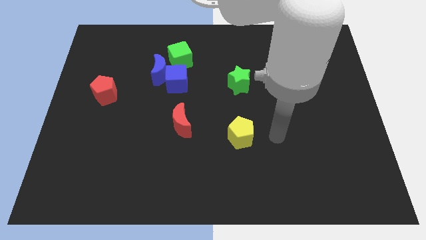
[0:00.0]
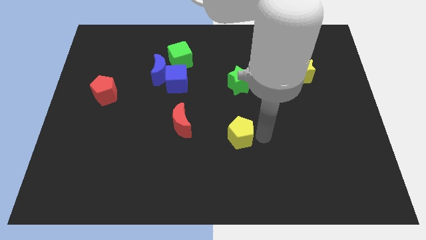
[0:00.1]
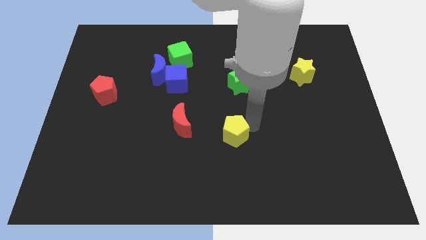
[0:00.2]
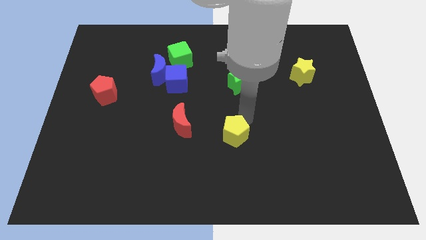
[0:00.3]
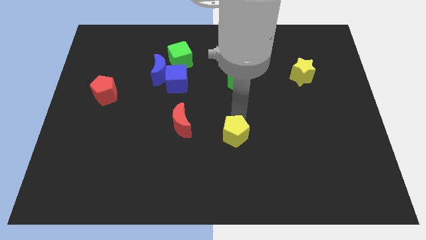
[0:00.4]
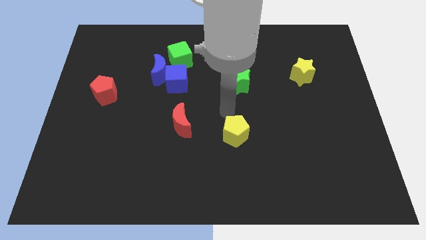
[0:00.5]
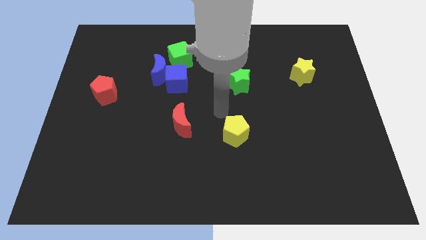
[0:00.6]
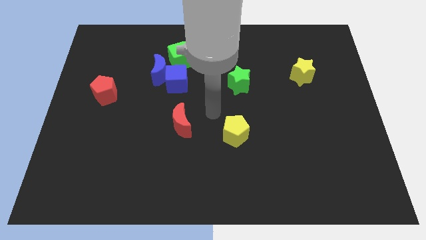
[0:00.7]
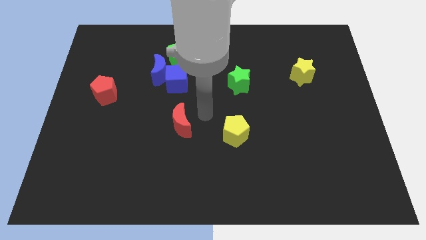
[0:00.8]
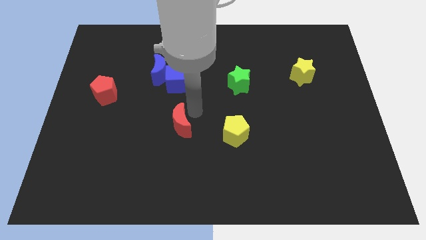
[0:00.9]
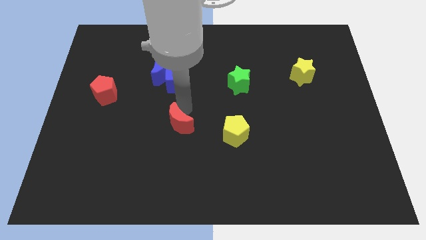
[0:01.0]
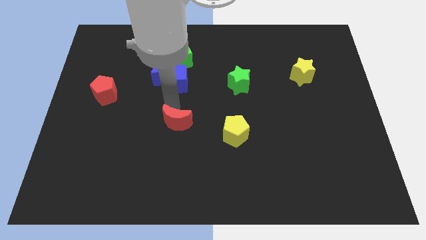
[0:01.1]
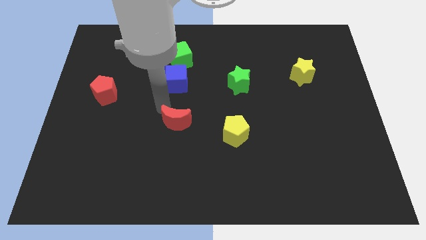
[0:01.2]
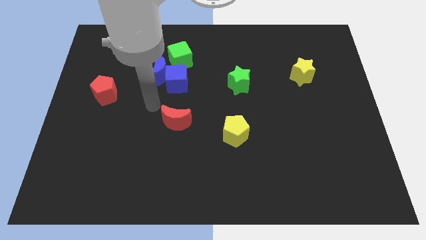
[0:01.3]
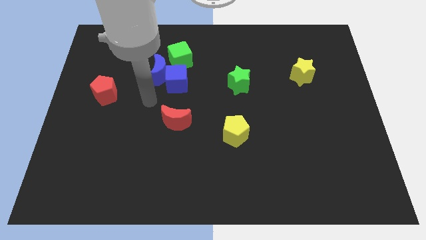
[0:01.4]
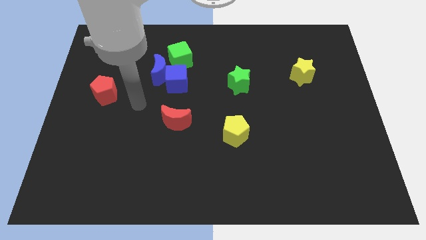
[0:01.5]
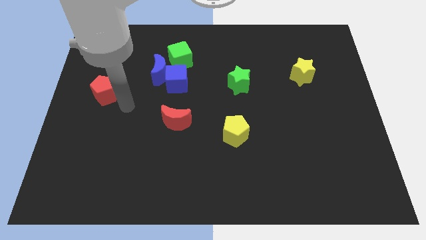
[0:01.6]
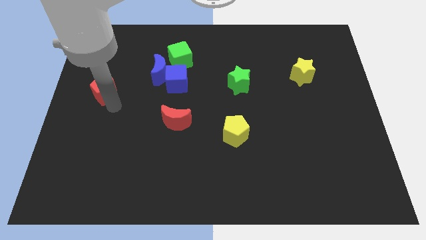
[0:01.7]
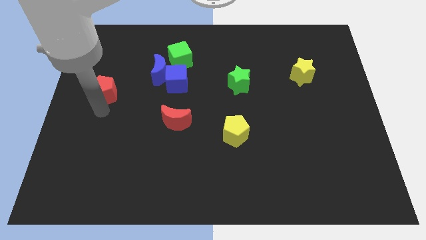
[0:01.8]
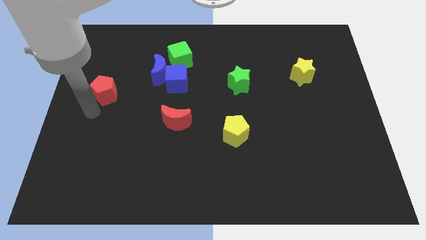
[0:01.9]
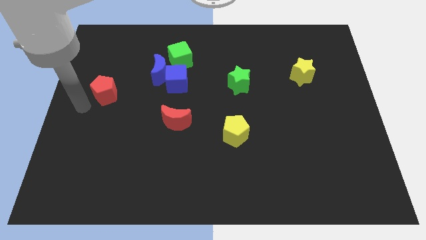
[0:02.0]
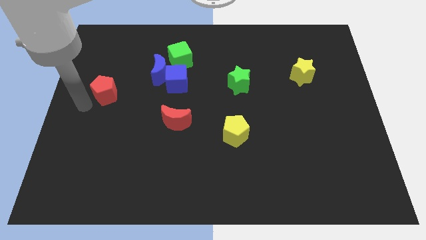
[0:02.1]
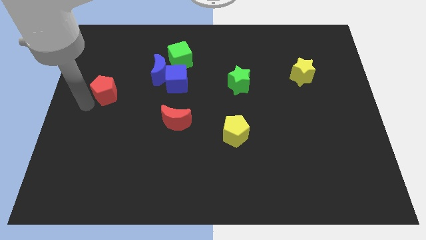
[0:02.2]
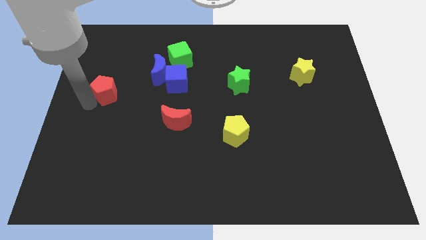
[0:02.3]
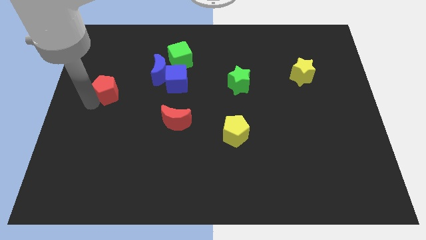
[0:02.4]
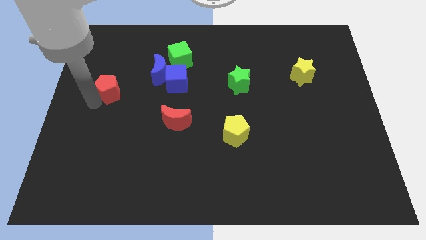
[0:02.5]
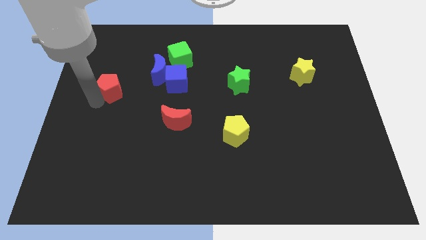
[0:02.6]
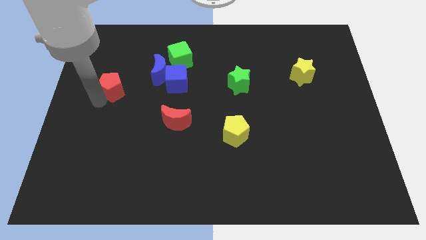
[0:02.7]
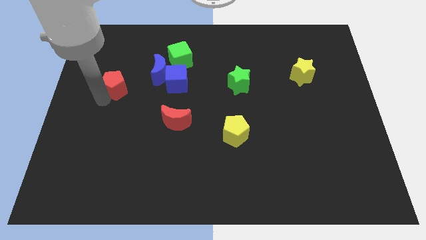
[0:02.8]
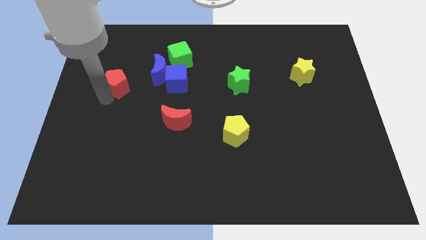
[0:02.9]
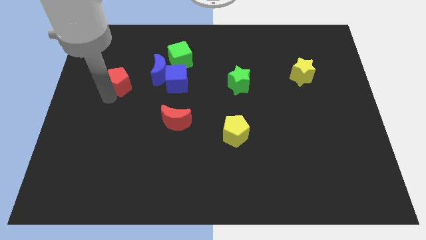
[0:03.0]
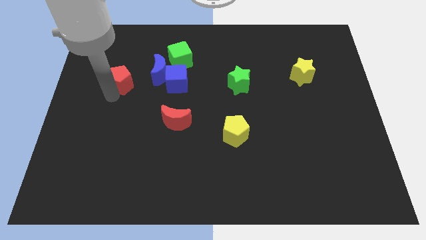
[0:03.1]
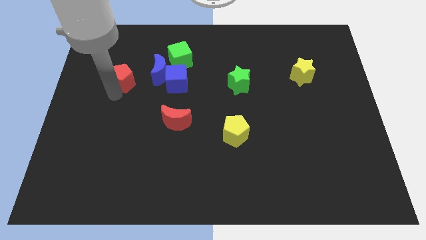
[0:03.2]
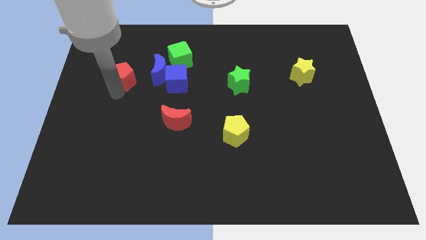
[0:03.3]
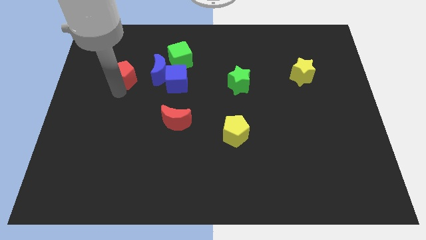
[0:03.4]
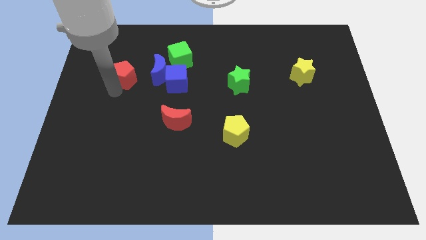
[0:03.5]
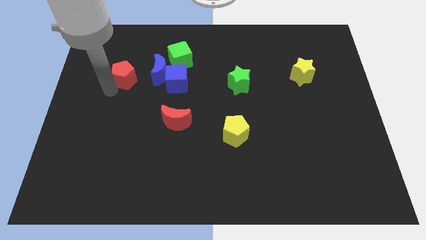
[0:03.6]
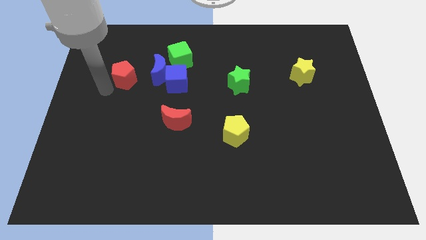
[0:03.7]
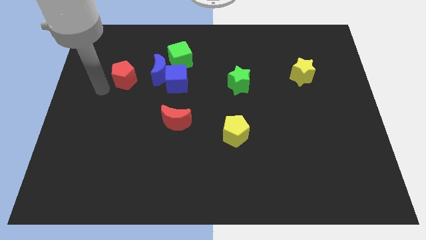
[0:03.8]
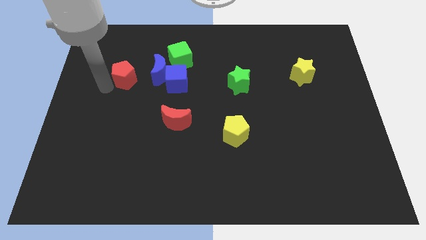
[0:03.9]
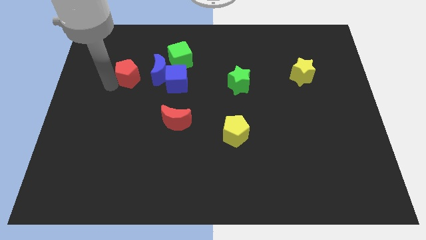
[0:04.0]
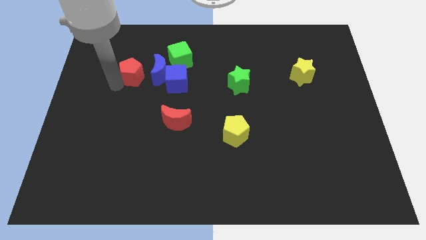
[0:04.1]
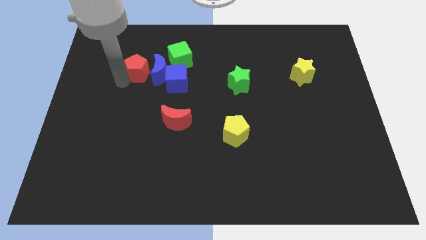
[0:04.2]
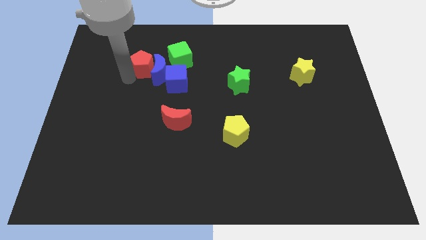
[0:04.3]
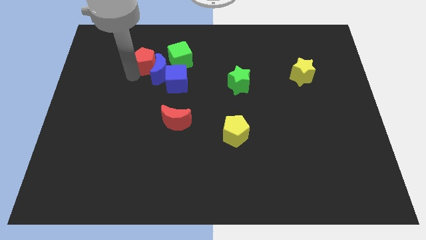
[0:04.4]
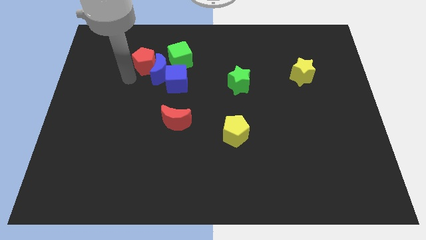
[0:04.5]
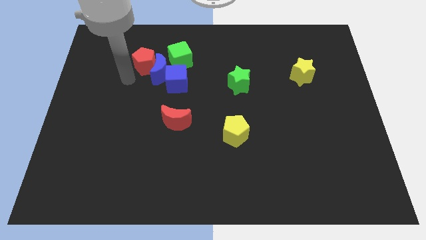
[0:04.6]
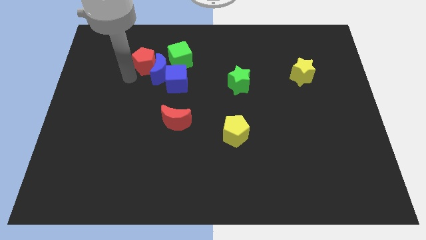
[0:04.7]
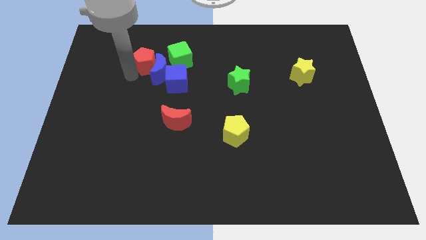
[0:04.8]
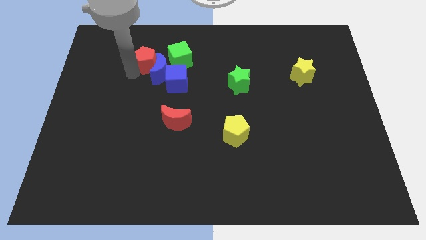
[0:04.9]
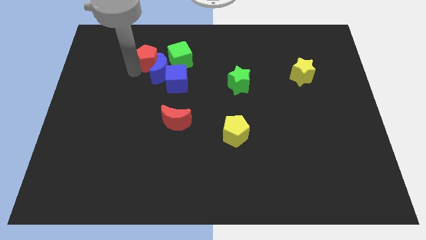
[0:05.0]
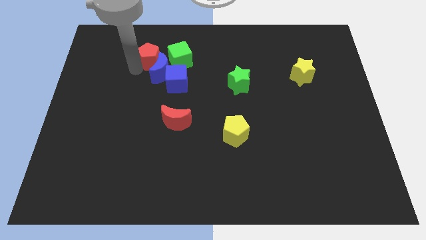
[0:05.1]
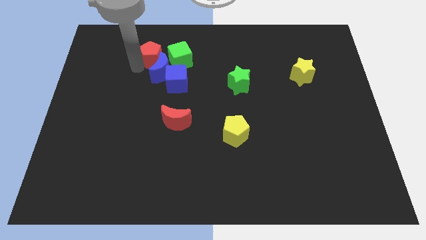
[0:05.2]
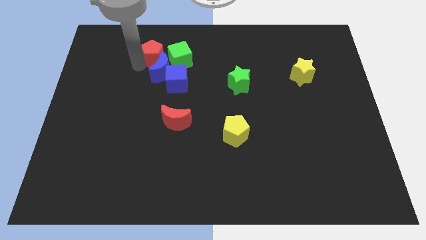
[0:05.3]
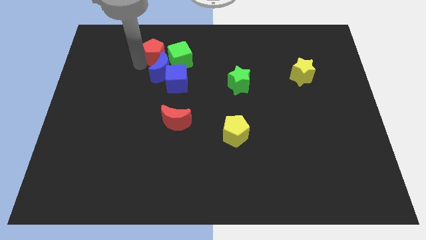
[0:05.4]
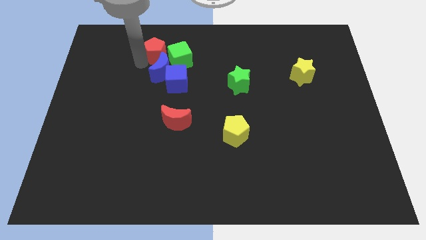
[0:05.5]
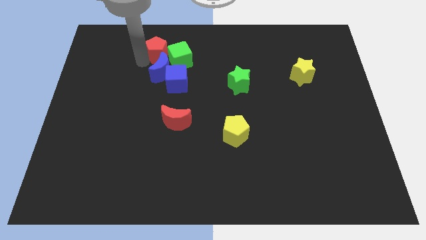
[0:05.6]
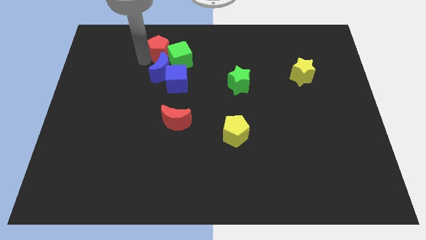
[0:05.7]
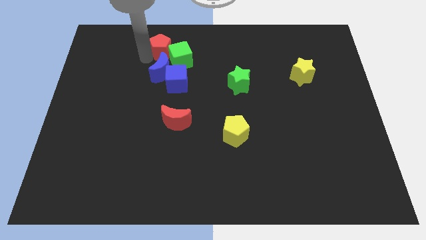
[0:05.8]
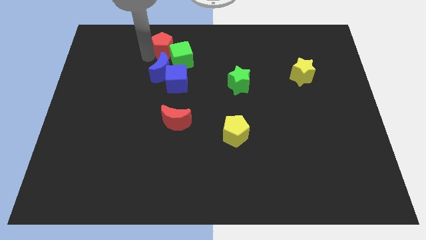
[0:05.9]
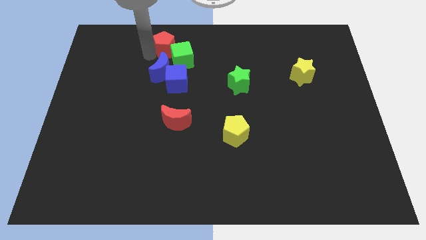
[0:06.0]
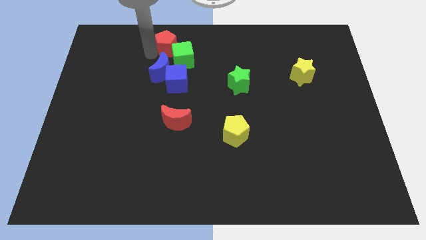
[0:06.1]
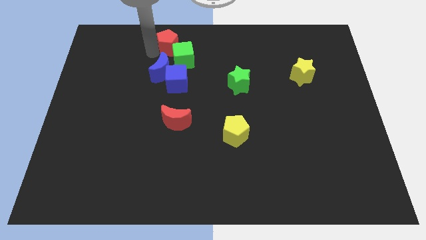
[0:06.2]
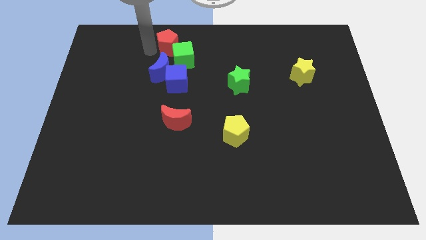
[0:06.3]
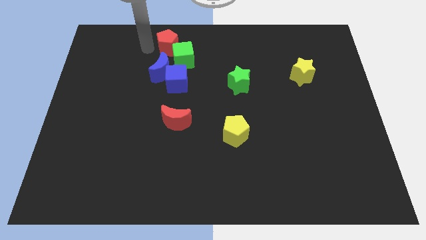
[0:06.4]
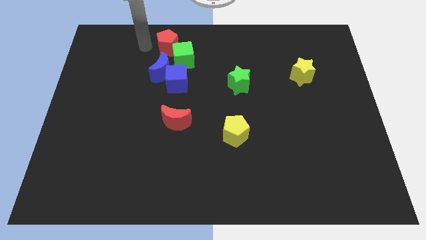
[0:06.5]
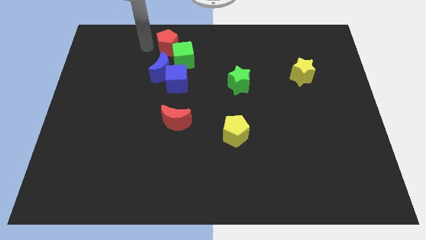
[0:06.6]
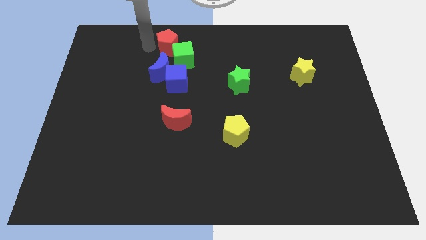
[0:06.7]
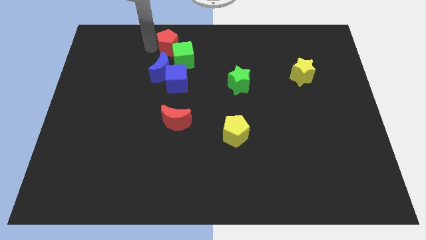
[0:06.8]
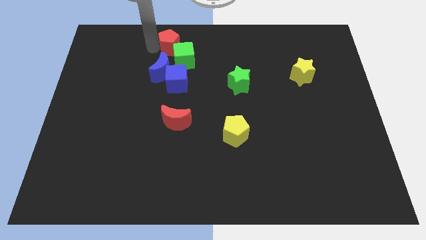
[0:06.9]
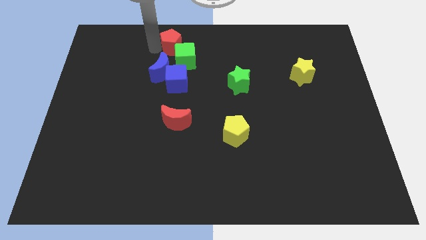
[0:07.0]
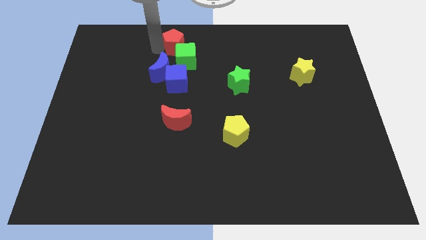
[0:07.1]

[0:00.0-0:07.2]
move the red pentagon to the top

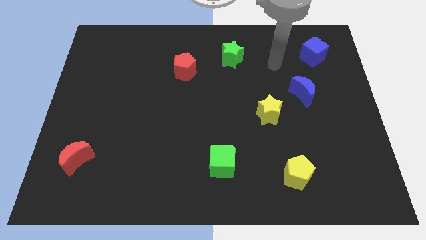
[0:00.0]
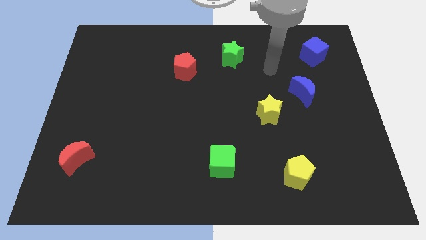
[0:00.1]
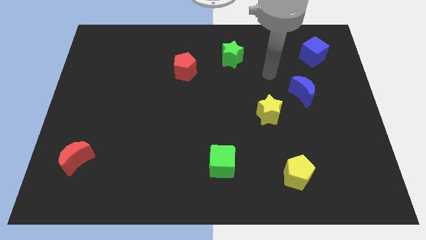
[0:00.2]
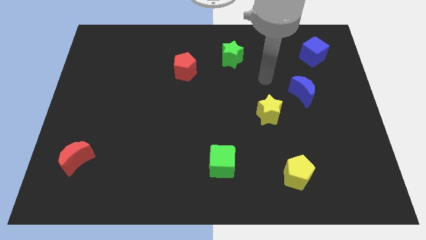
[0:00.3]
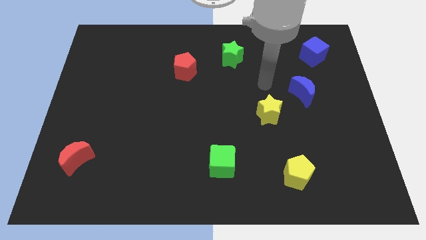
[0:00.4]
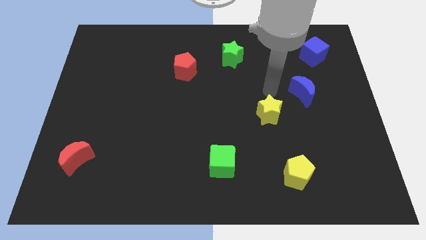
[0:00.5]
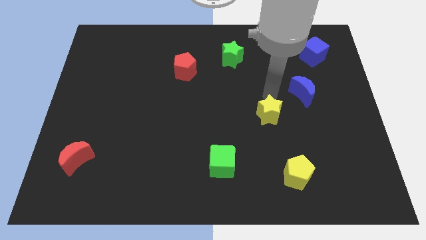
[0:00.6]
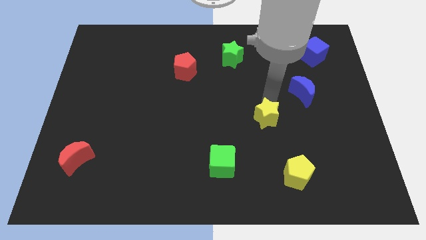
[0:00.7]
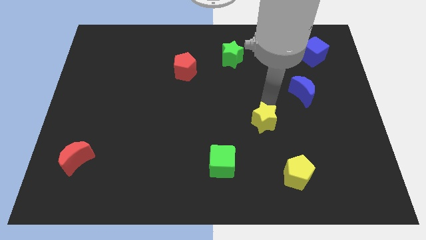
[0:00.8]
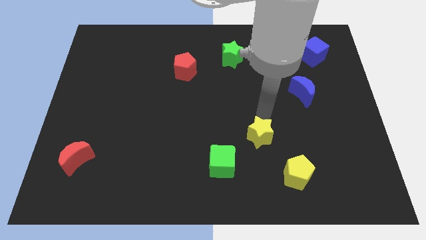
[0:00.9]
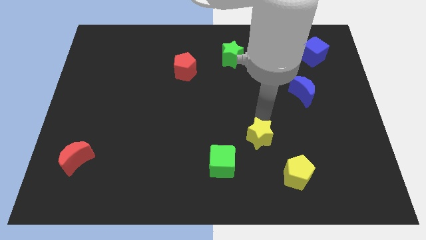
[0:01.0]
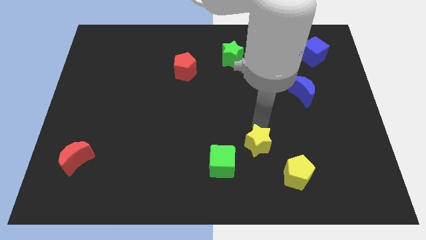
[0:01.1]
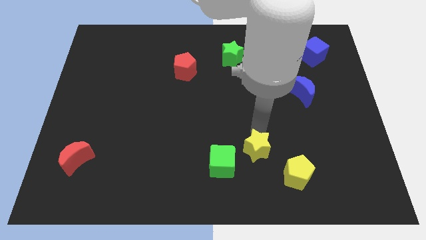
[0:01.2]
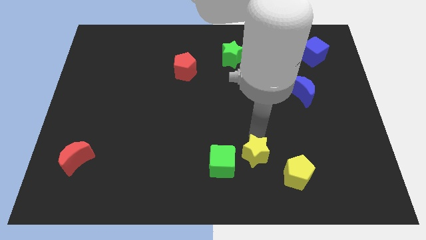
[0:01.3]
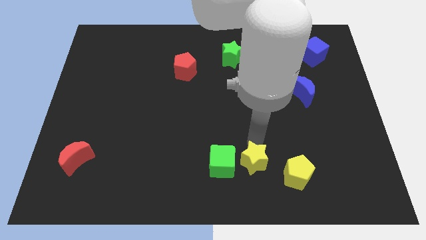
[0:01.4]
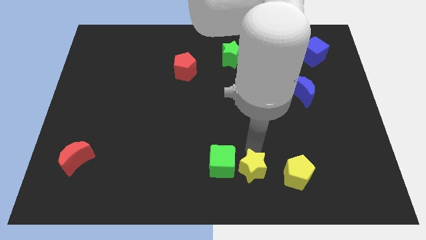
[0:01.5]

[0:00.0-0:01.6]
put the yellow star to the bottom
